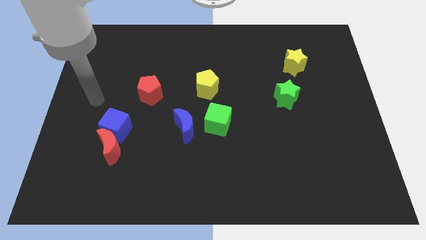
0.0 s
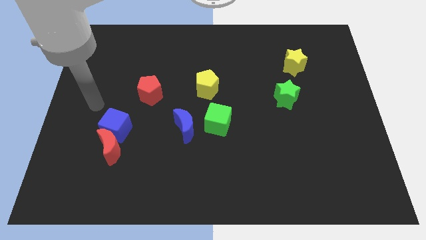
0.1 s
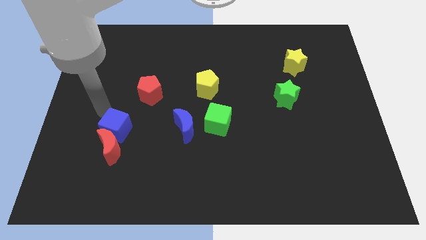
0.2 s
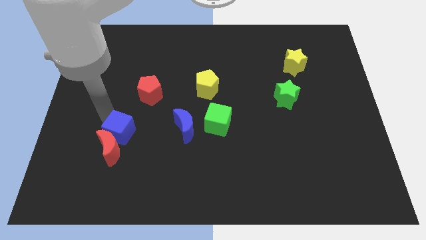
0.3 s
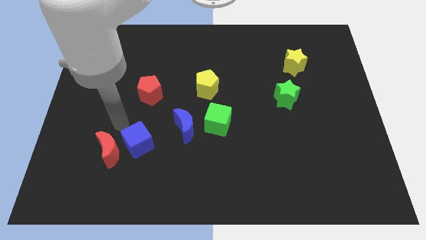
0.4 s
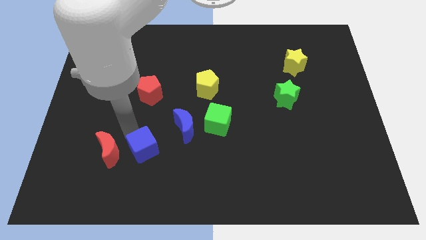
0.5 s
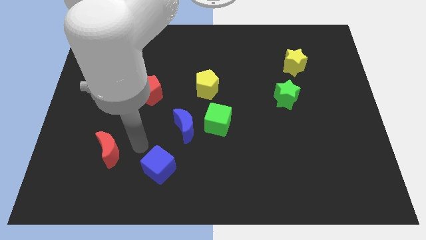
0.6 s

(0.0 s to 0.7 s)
separate the red moon from the blue cube

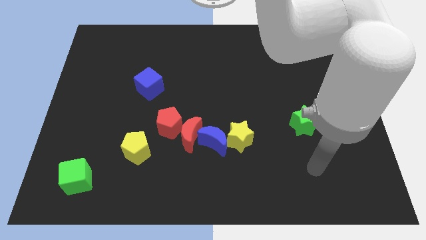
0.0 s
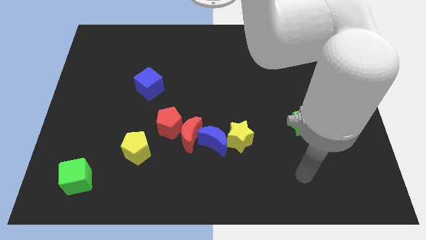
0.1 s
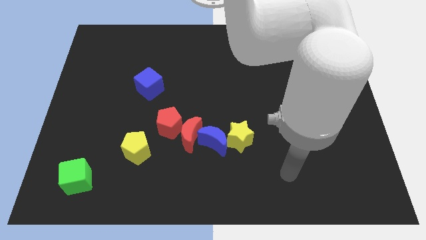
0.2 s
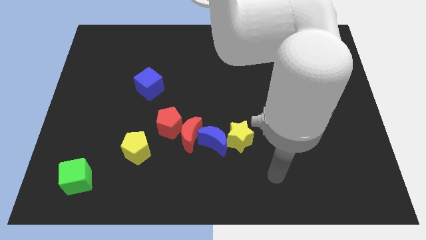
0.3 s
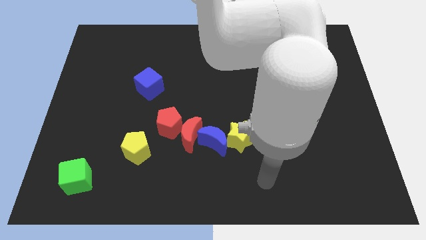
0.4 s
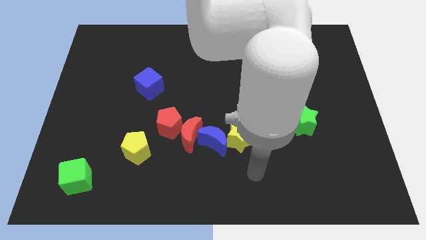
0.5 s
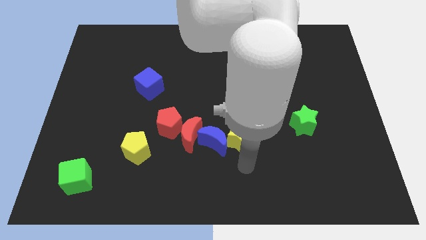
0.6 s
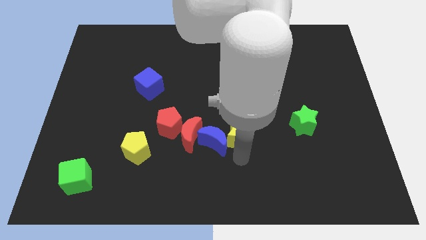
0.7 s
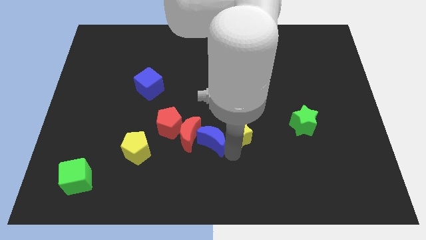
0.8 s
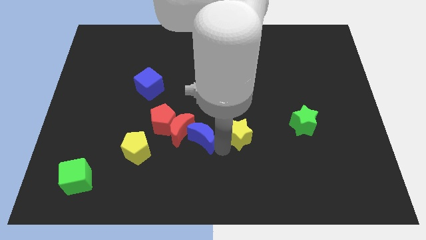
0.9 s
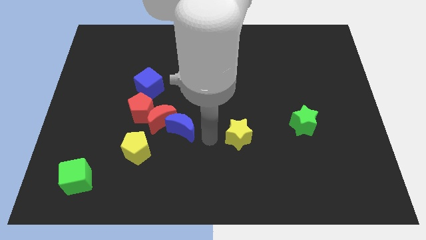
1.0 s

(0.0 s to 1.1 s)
move the yellow star away from the blue moon

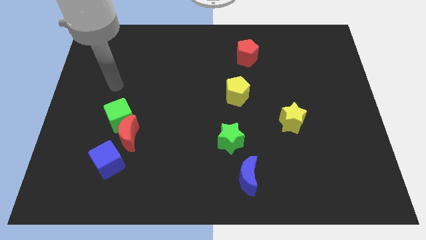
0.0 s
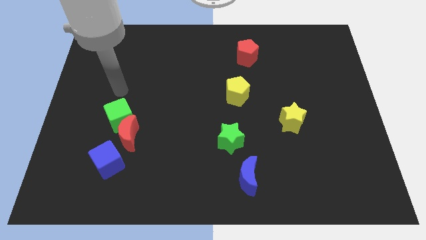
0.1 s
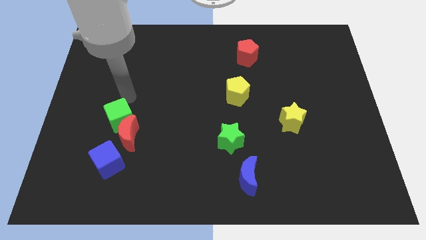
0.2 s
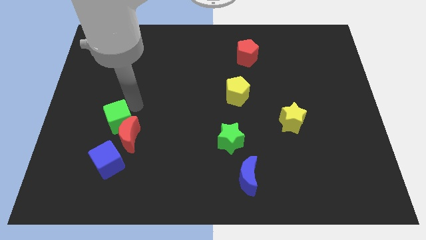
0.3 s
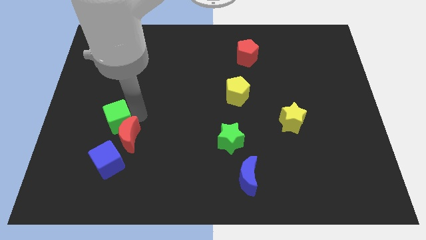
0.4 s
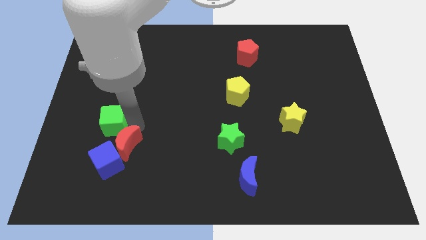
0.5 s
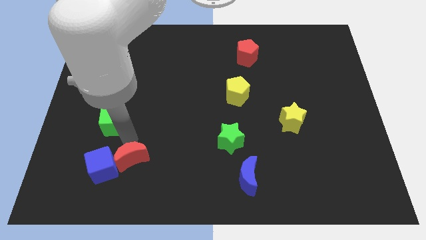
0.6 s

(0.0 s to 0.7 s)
pull the green cube apart from the red moon

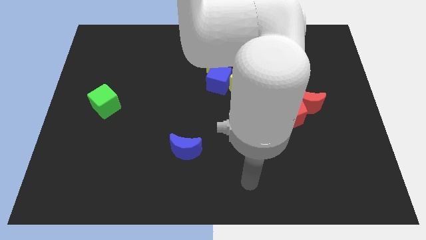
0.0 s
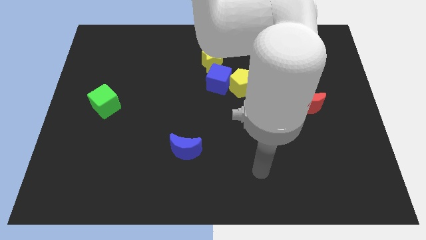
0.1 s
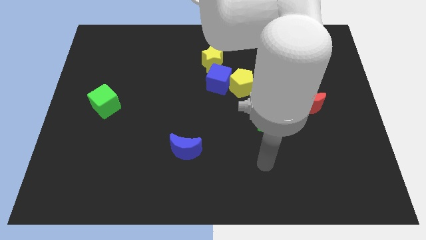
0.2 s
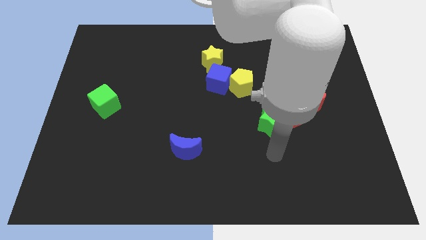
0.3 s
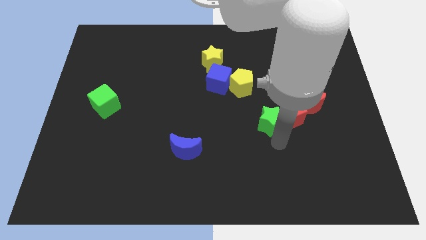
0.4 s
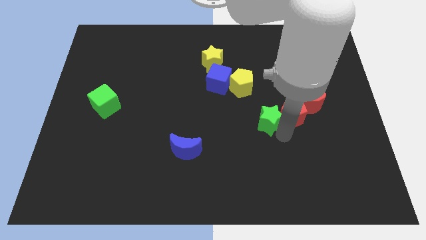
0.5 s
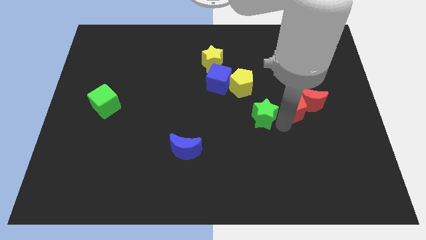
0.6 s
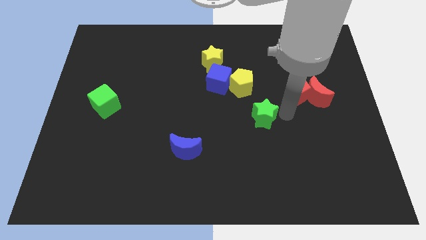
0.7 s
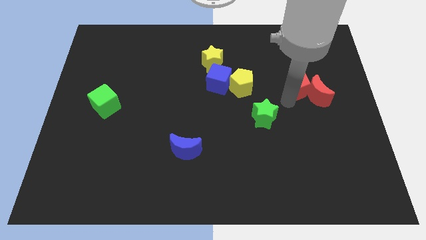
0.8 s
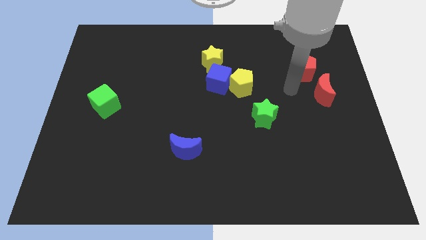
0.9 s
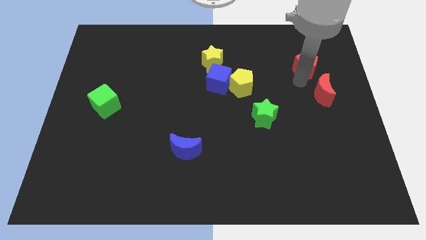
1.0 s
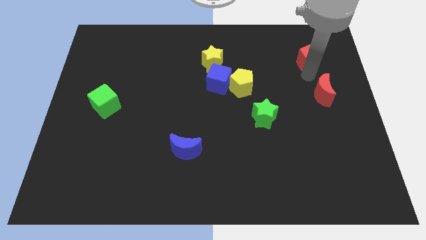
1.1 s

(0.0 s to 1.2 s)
move the red moon away from the red pentagon

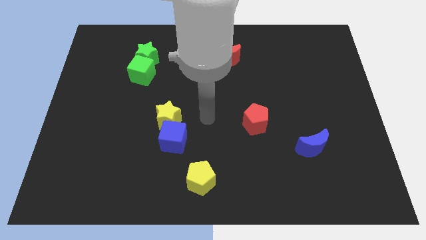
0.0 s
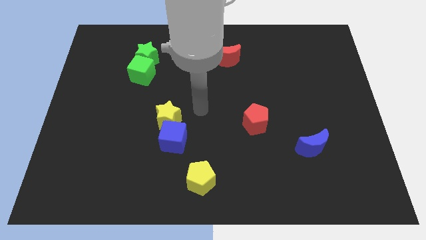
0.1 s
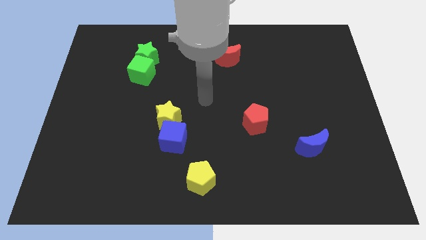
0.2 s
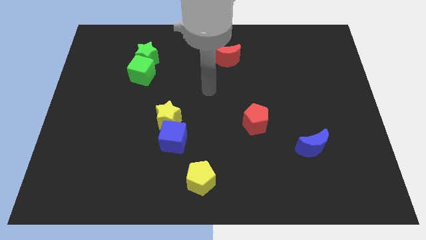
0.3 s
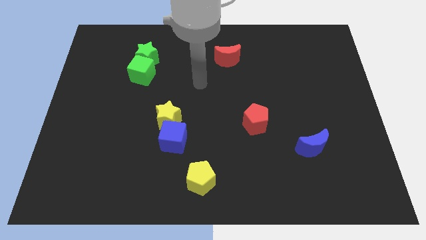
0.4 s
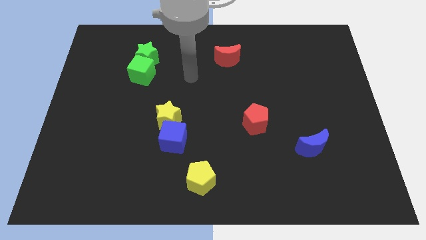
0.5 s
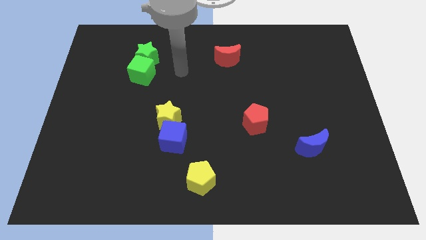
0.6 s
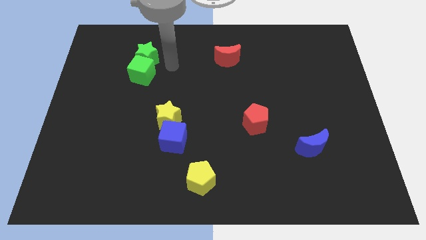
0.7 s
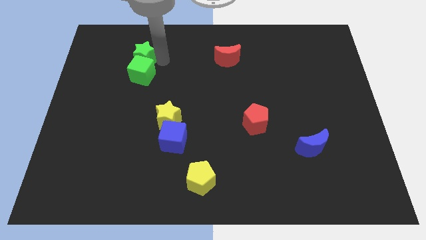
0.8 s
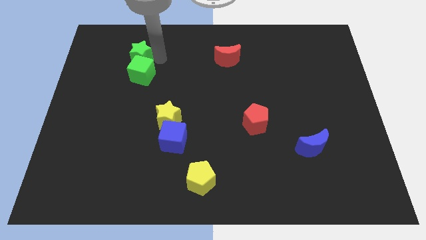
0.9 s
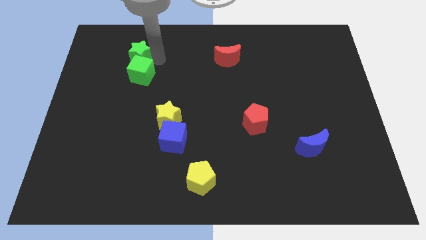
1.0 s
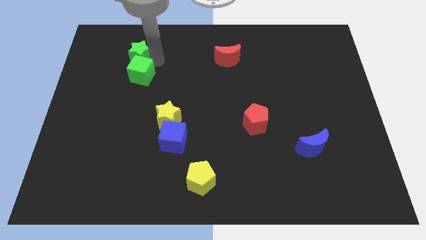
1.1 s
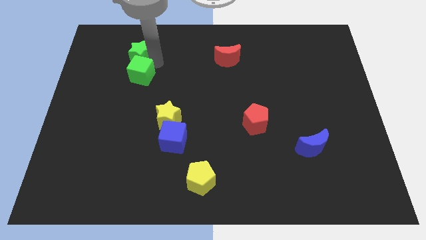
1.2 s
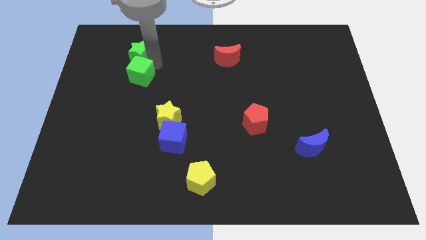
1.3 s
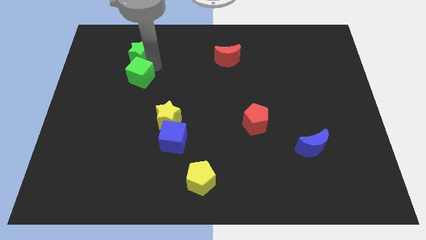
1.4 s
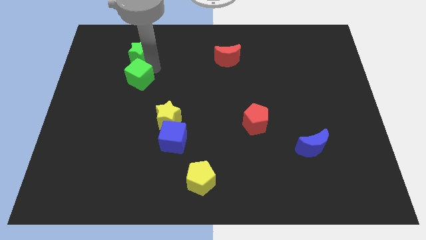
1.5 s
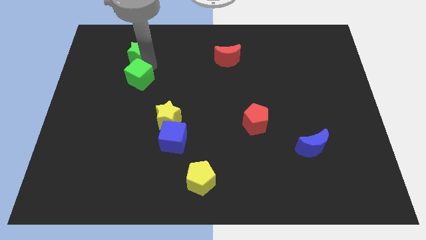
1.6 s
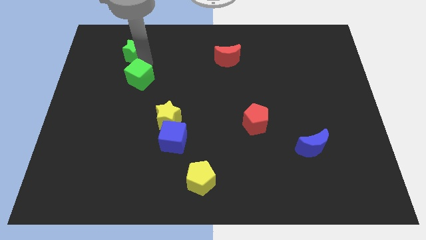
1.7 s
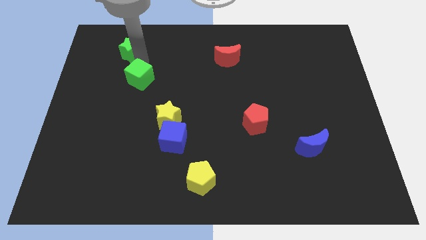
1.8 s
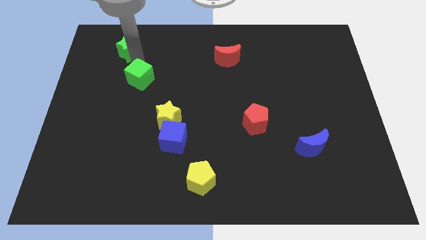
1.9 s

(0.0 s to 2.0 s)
move the green cube away from the green star

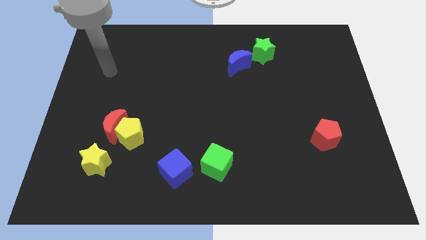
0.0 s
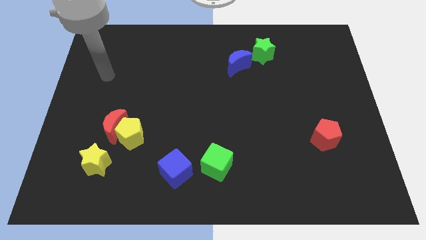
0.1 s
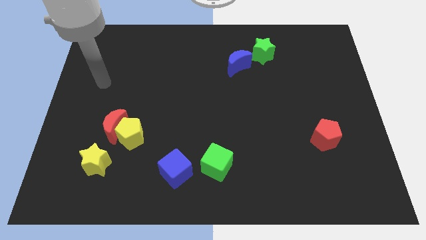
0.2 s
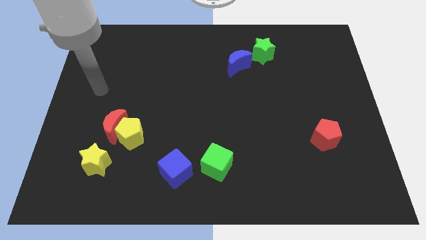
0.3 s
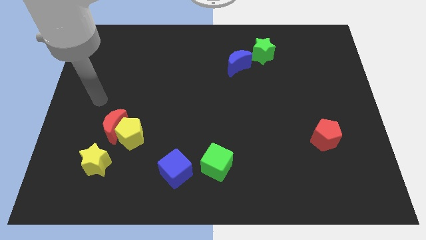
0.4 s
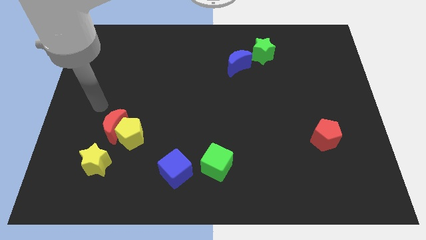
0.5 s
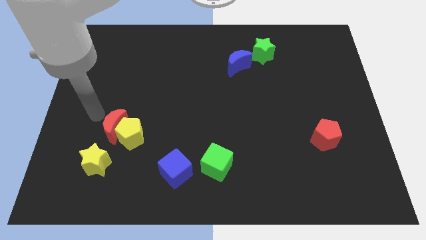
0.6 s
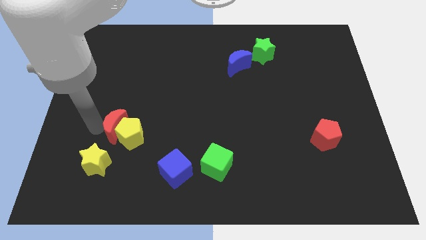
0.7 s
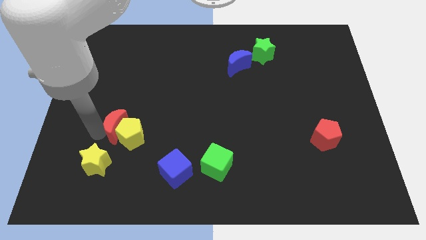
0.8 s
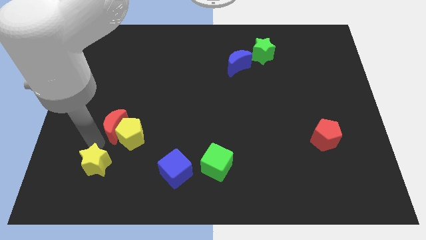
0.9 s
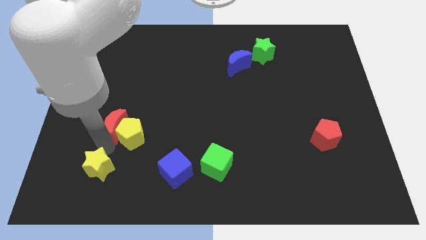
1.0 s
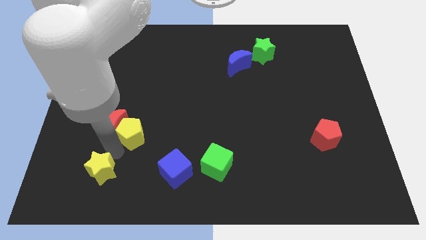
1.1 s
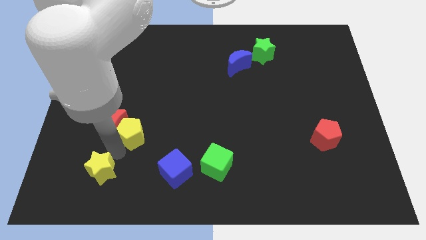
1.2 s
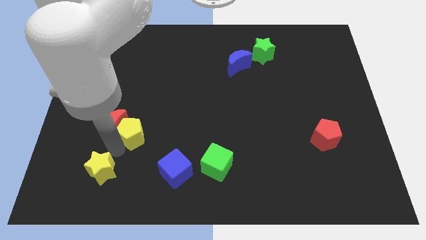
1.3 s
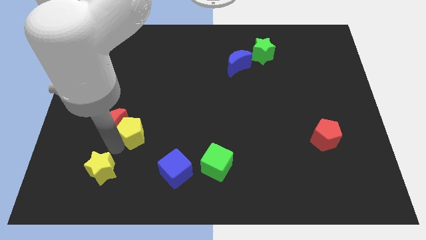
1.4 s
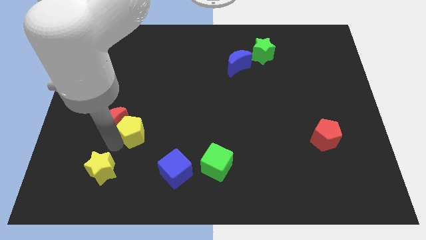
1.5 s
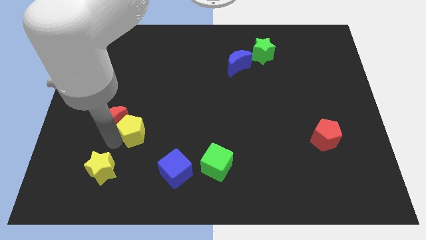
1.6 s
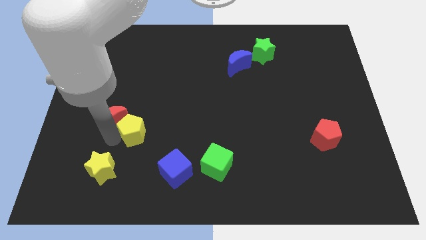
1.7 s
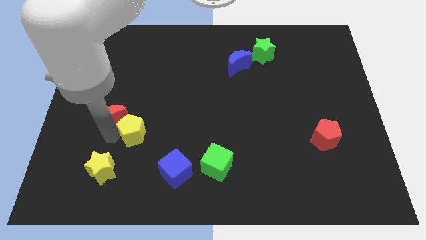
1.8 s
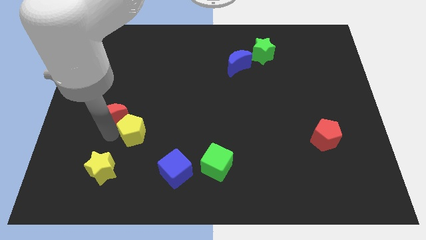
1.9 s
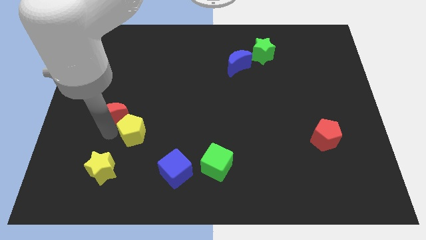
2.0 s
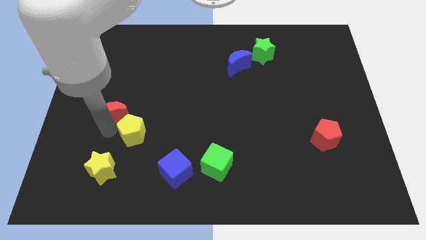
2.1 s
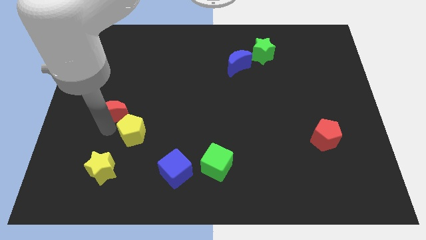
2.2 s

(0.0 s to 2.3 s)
move the red moon away from the yellow pentagon and yellow star

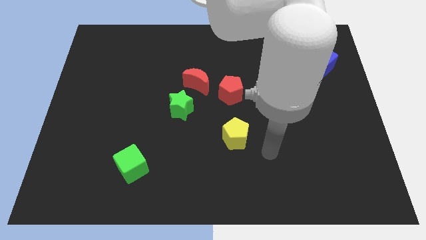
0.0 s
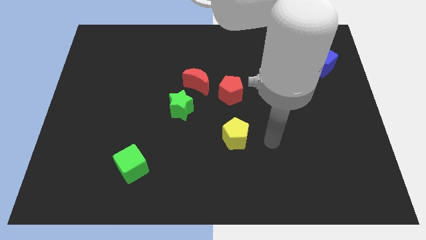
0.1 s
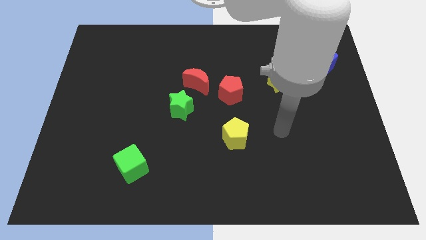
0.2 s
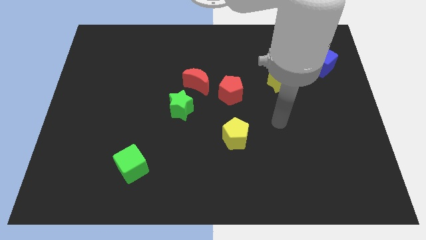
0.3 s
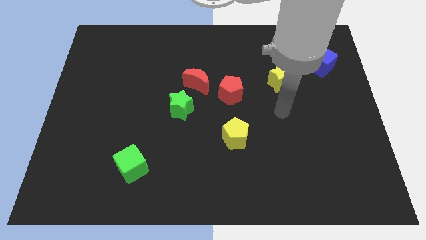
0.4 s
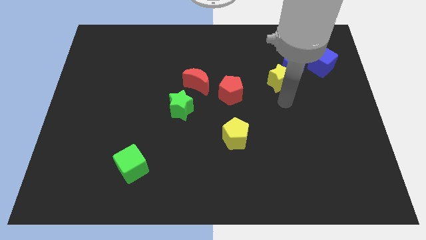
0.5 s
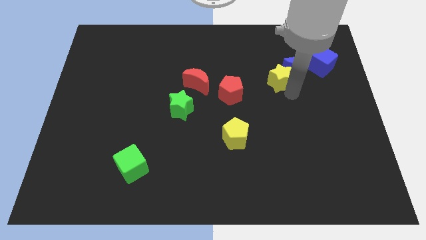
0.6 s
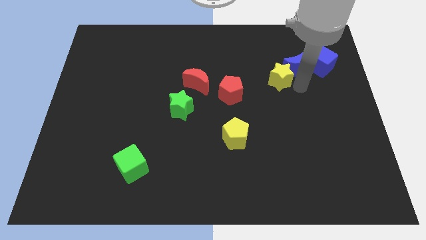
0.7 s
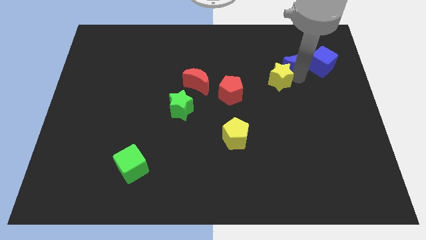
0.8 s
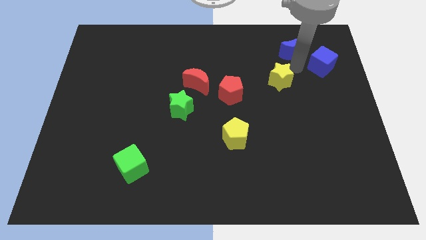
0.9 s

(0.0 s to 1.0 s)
pull the yellow star apart from the blue moon

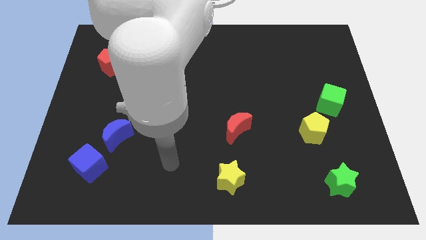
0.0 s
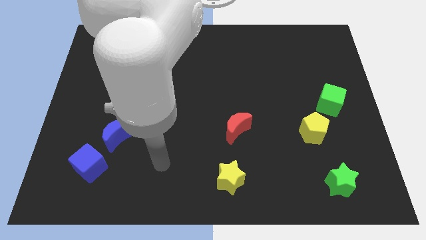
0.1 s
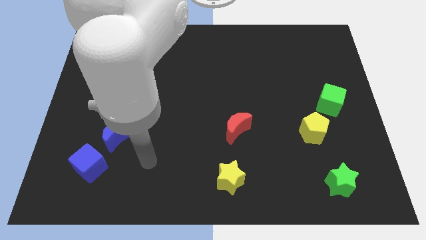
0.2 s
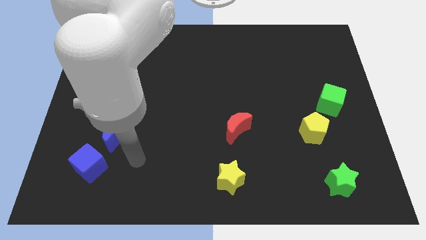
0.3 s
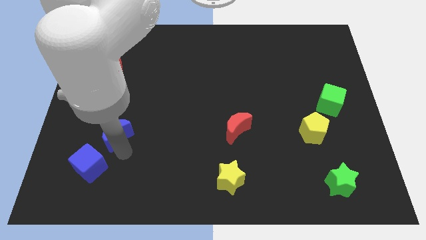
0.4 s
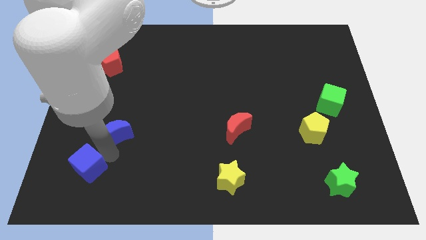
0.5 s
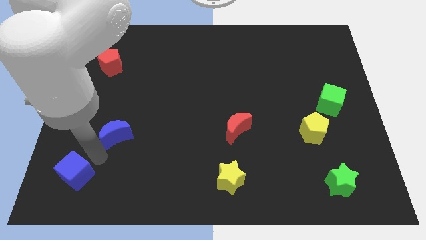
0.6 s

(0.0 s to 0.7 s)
move the blue moon away from the blue cube
